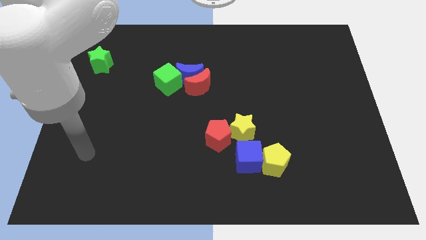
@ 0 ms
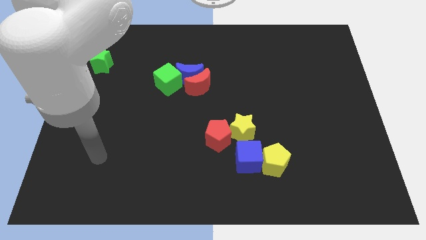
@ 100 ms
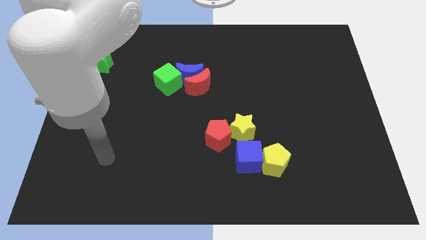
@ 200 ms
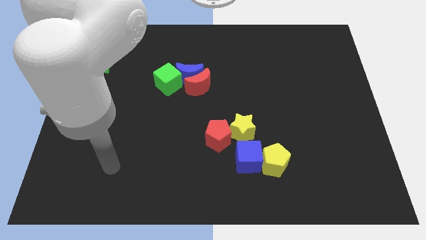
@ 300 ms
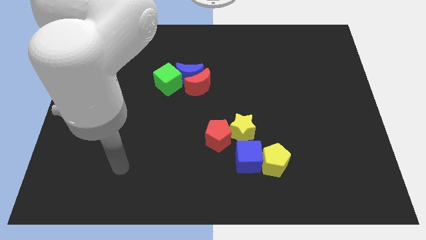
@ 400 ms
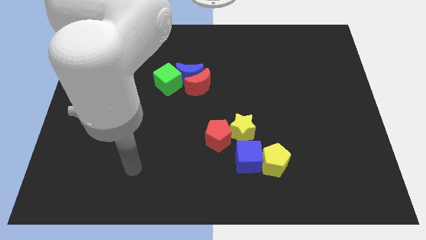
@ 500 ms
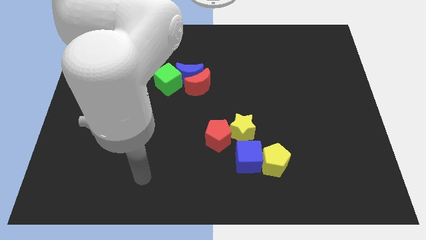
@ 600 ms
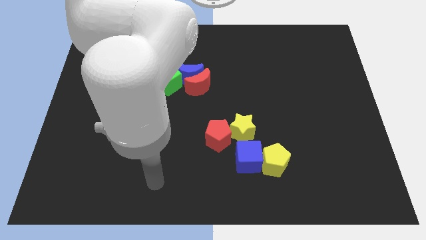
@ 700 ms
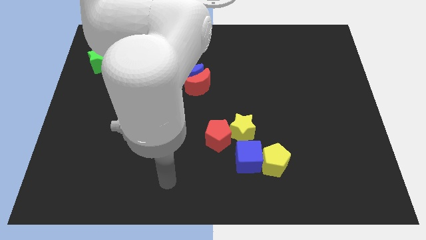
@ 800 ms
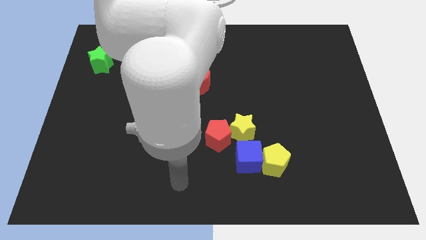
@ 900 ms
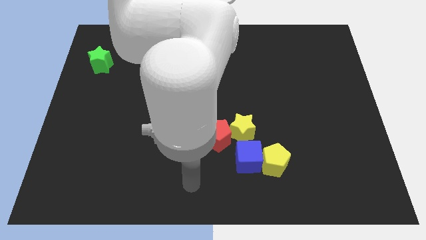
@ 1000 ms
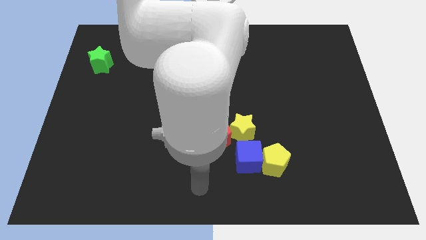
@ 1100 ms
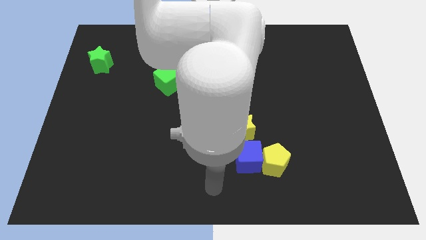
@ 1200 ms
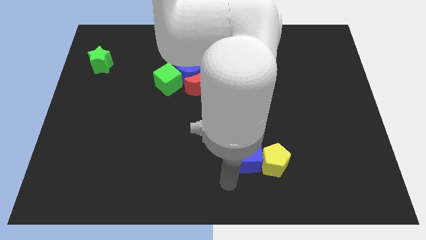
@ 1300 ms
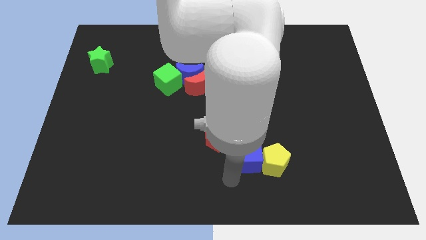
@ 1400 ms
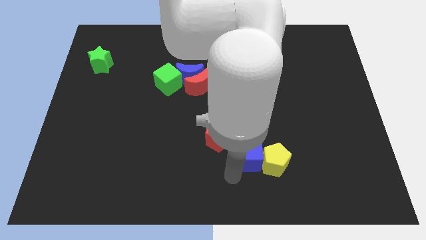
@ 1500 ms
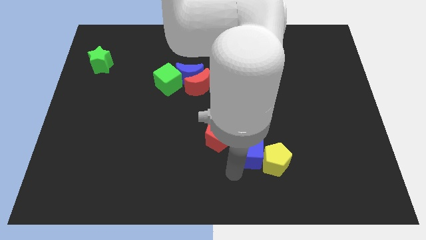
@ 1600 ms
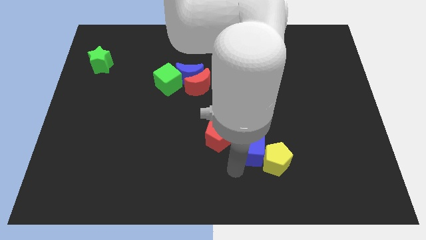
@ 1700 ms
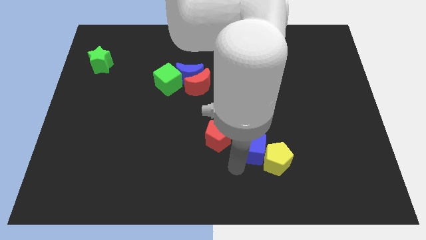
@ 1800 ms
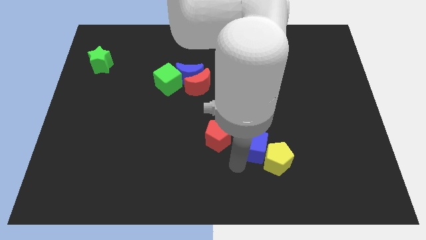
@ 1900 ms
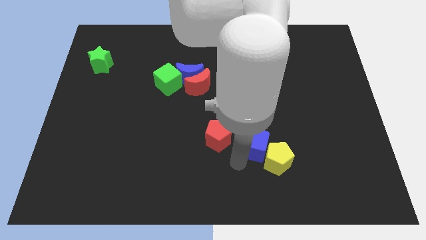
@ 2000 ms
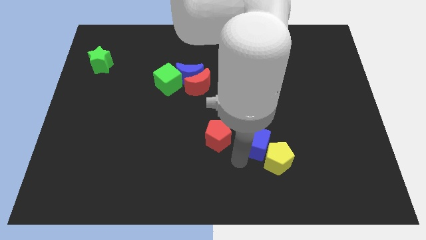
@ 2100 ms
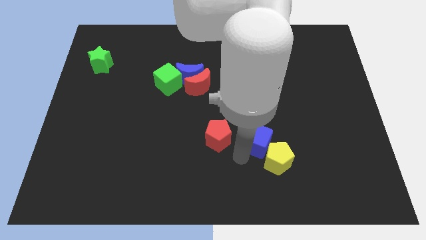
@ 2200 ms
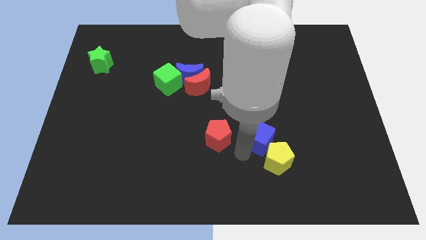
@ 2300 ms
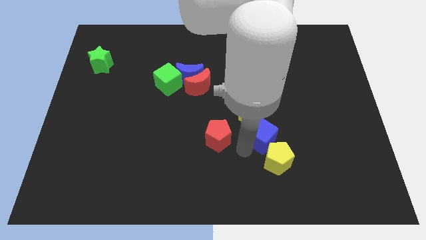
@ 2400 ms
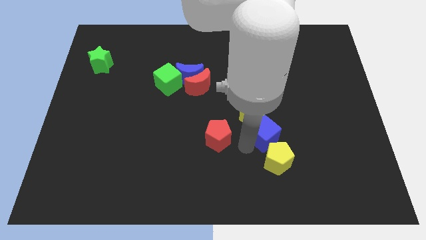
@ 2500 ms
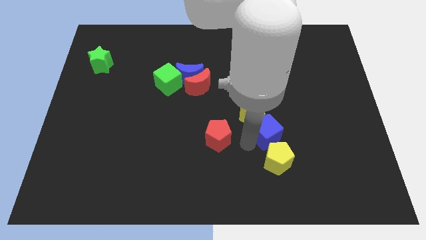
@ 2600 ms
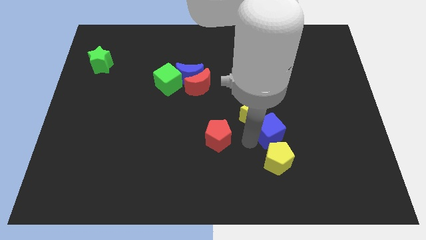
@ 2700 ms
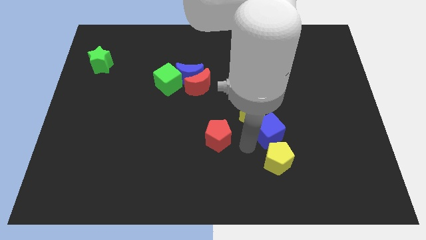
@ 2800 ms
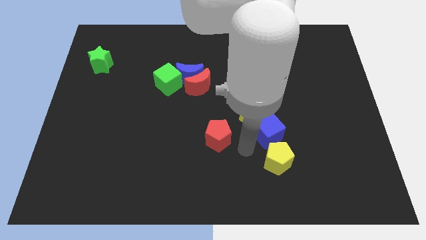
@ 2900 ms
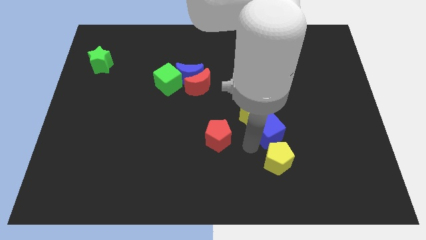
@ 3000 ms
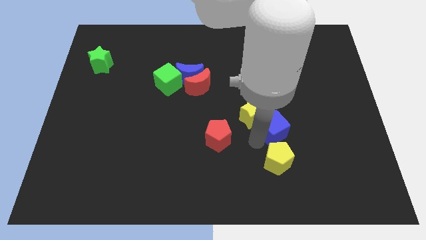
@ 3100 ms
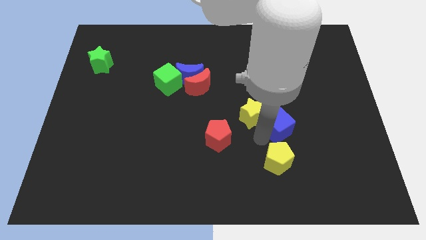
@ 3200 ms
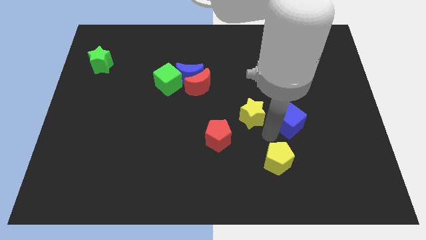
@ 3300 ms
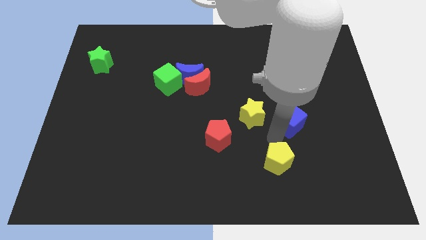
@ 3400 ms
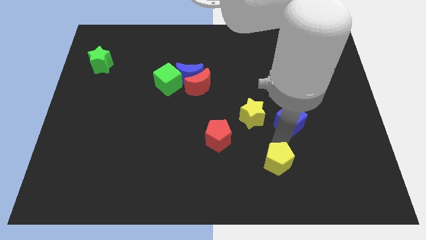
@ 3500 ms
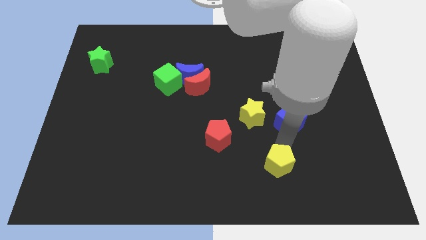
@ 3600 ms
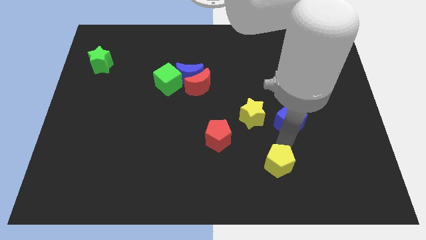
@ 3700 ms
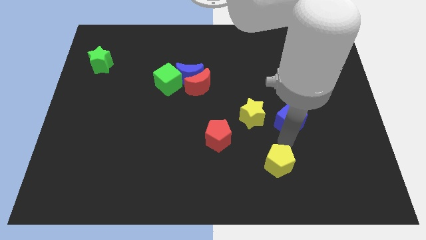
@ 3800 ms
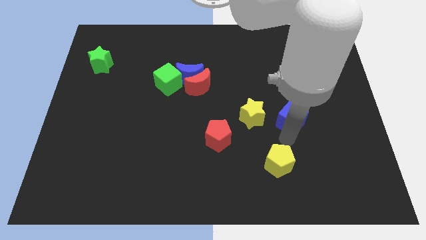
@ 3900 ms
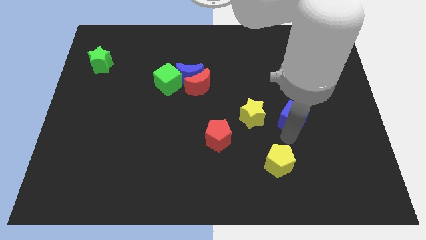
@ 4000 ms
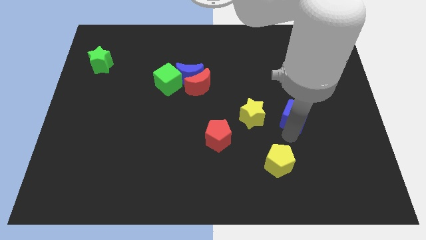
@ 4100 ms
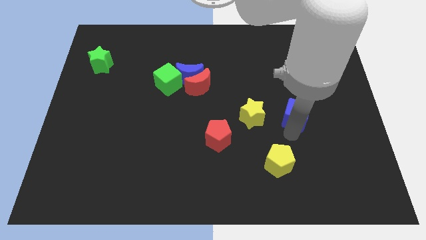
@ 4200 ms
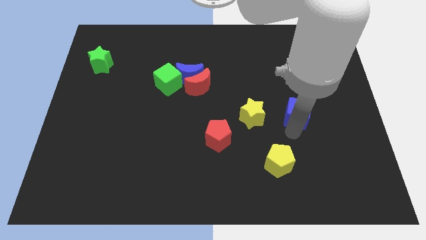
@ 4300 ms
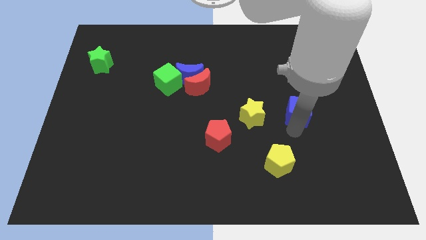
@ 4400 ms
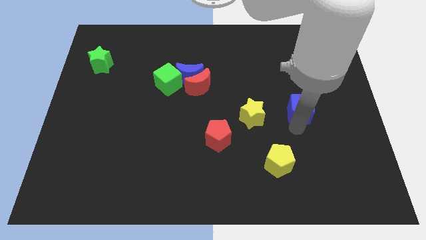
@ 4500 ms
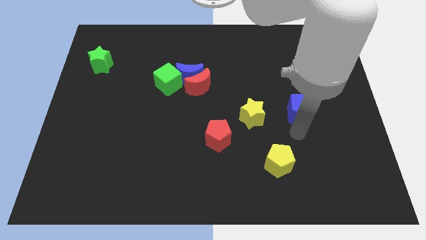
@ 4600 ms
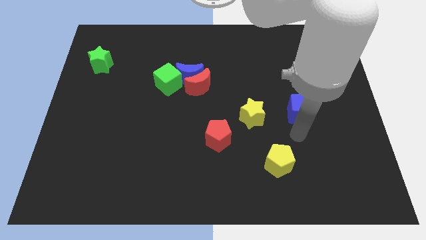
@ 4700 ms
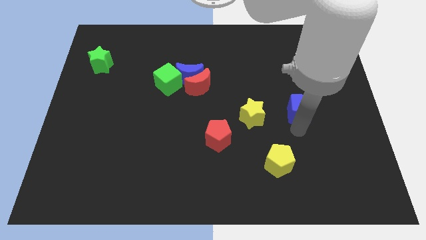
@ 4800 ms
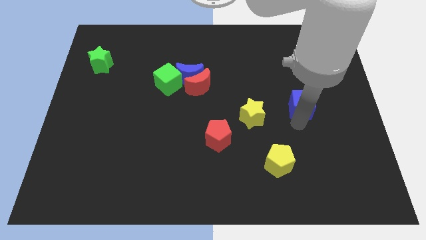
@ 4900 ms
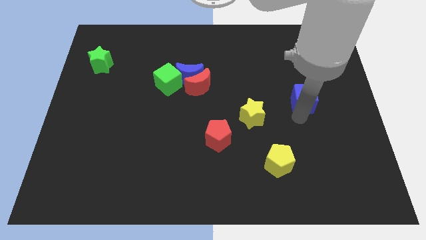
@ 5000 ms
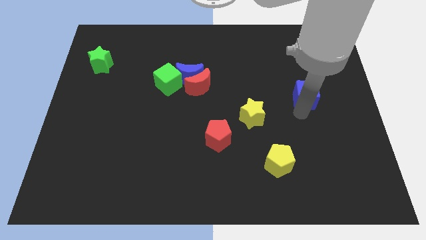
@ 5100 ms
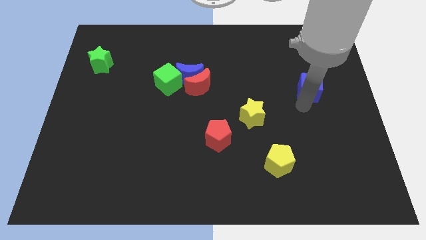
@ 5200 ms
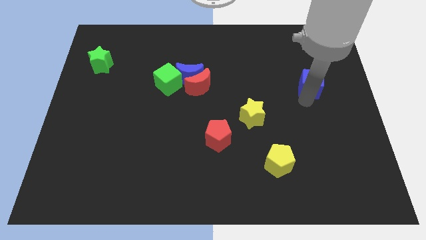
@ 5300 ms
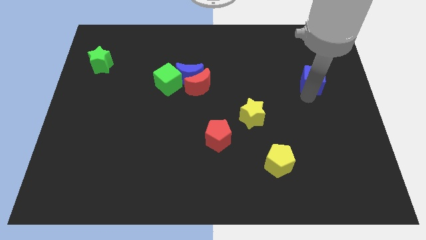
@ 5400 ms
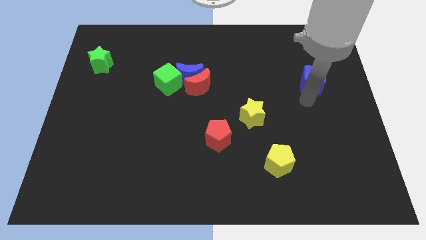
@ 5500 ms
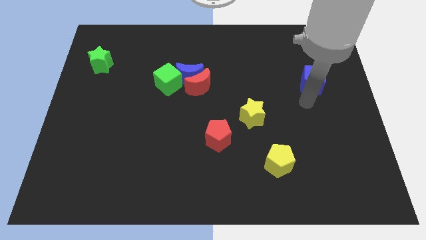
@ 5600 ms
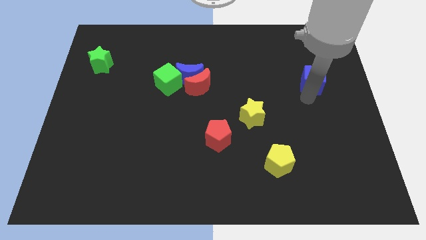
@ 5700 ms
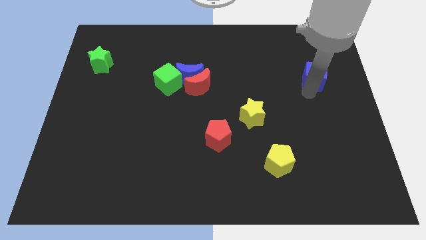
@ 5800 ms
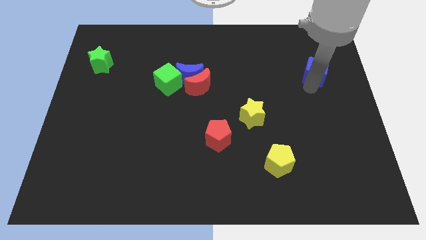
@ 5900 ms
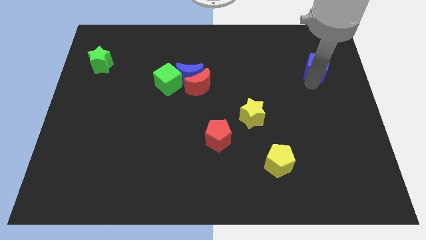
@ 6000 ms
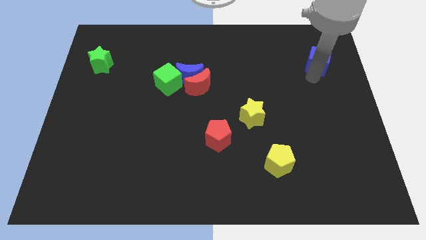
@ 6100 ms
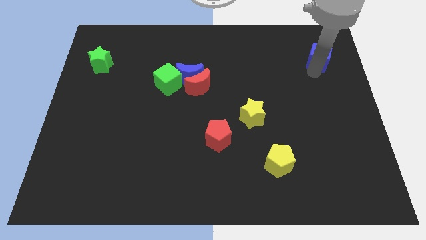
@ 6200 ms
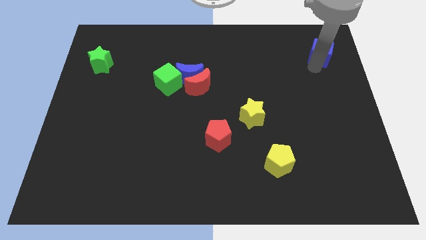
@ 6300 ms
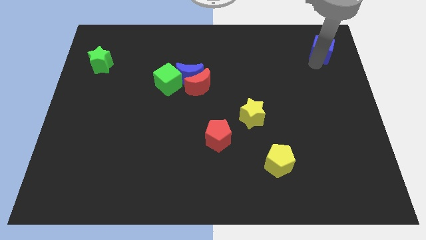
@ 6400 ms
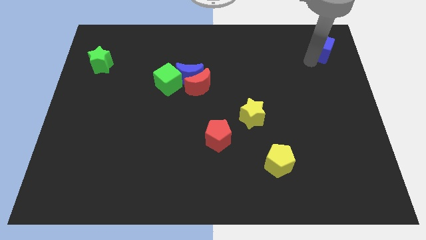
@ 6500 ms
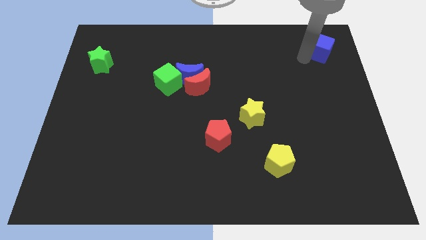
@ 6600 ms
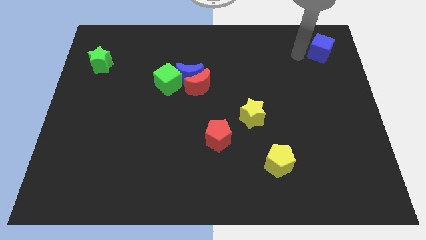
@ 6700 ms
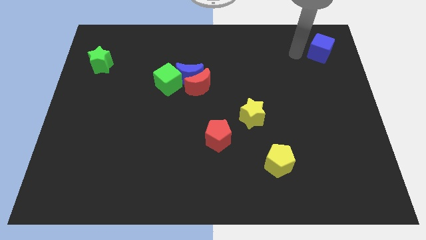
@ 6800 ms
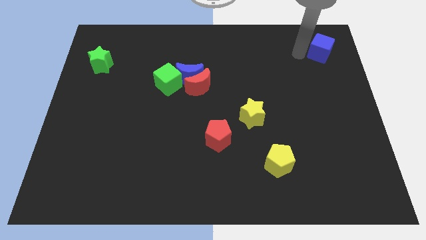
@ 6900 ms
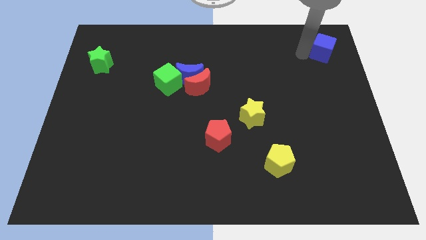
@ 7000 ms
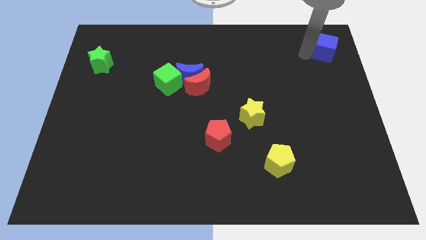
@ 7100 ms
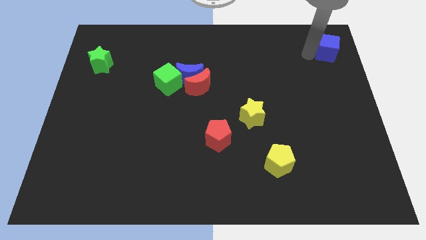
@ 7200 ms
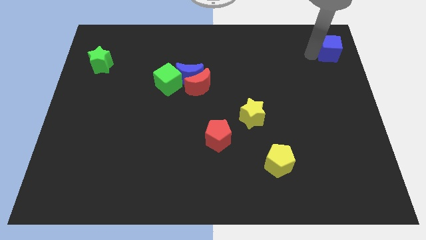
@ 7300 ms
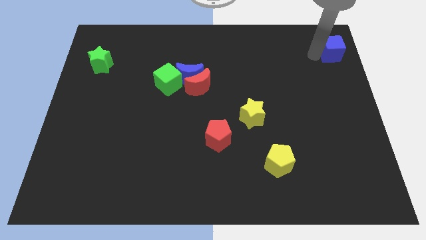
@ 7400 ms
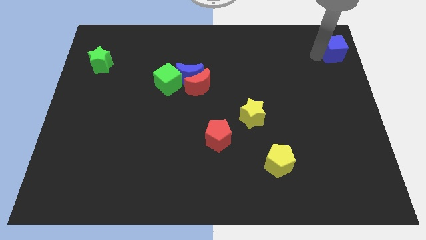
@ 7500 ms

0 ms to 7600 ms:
push the blue cube to the top right corner
